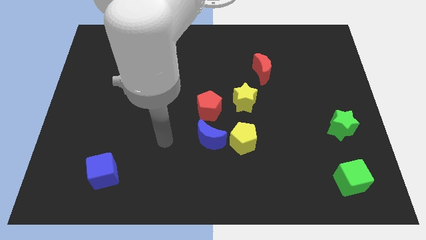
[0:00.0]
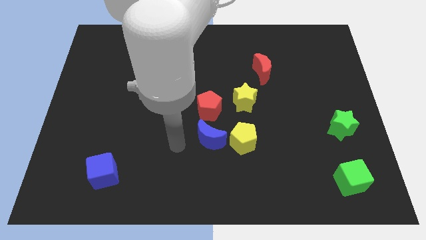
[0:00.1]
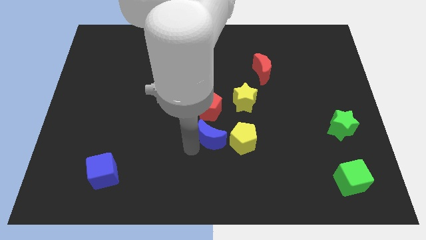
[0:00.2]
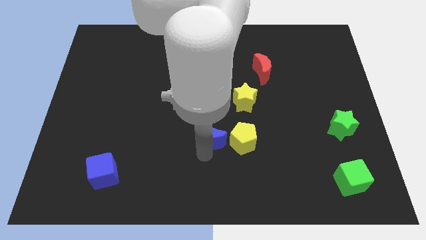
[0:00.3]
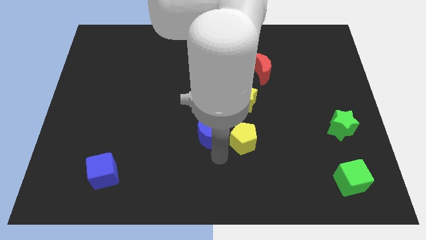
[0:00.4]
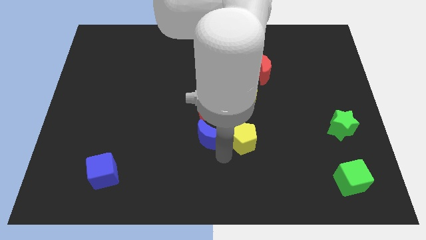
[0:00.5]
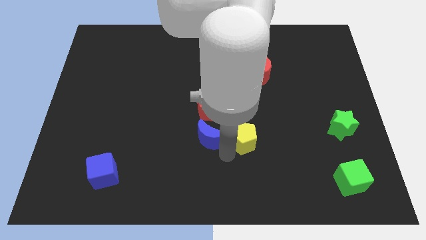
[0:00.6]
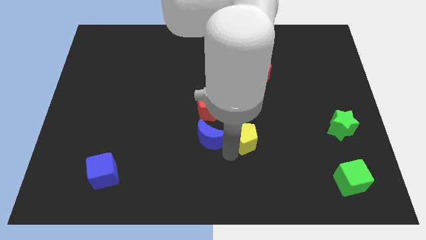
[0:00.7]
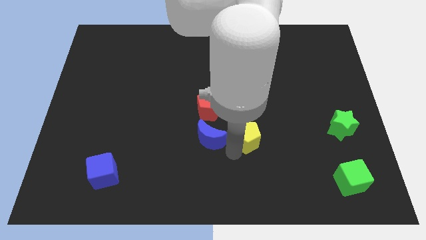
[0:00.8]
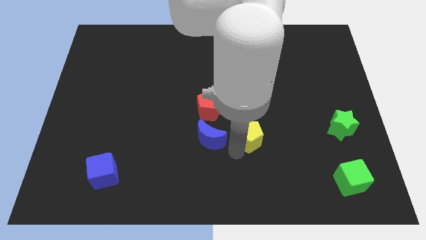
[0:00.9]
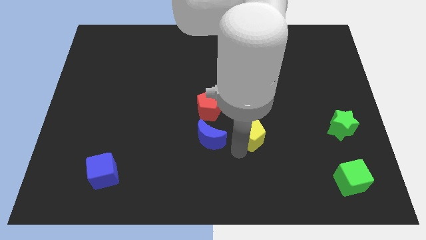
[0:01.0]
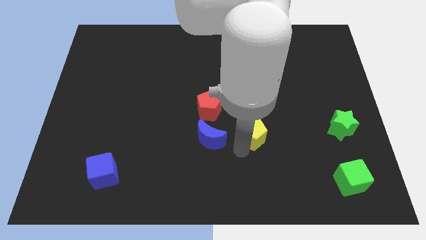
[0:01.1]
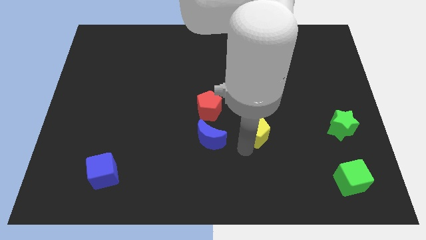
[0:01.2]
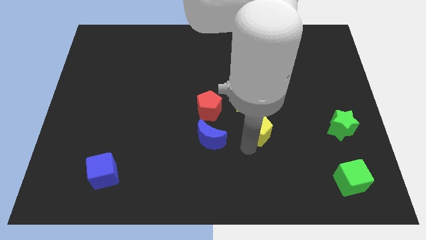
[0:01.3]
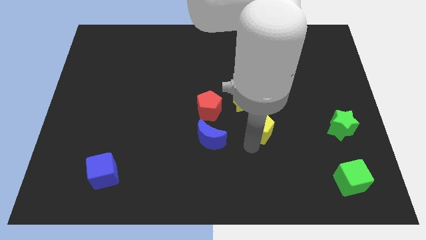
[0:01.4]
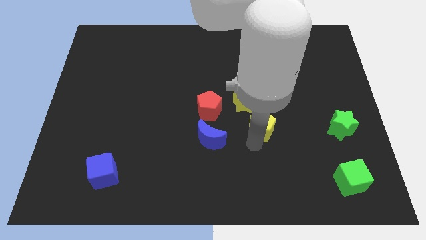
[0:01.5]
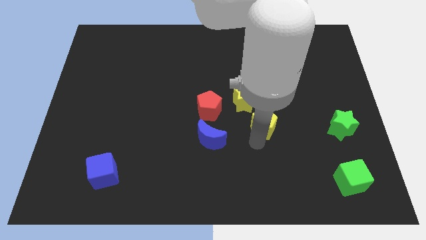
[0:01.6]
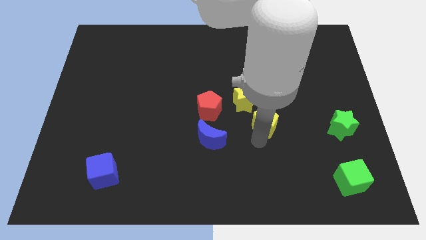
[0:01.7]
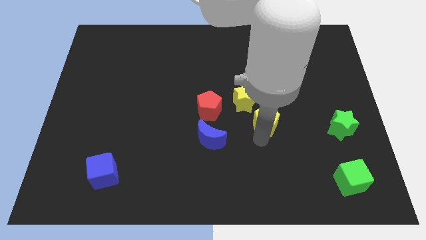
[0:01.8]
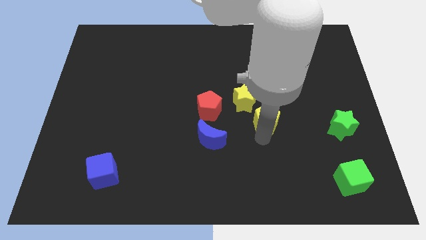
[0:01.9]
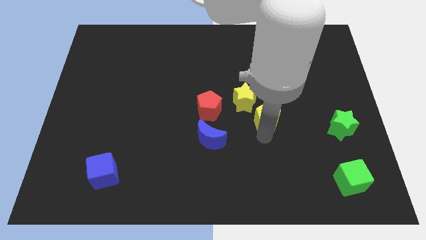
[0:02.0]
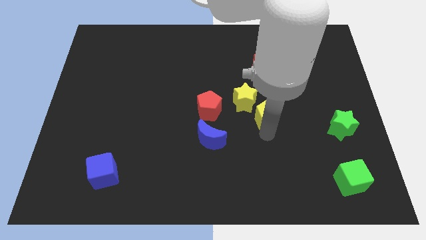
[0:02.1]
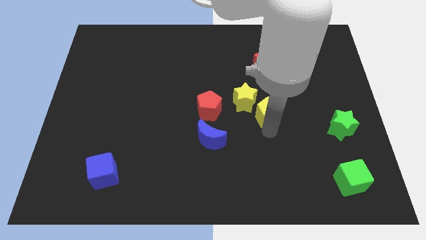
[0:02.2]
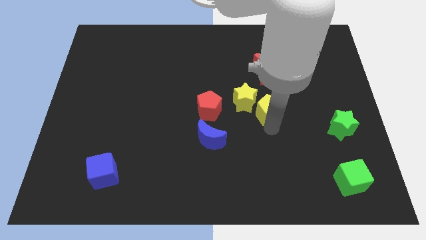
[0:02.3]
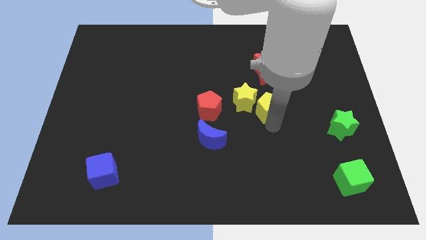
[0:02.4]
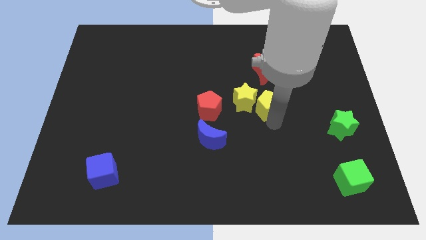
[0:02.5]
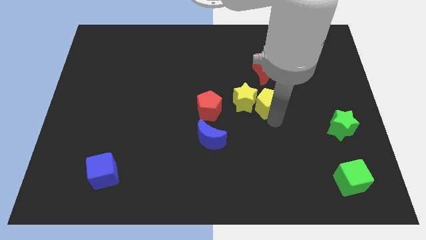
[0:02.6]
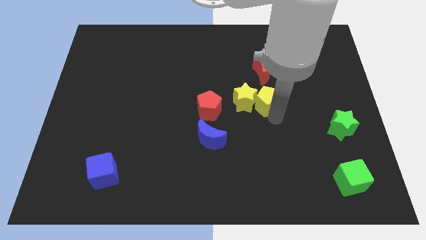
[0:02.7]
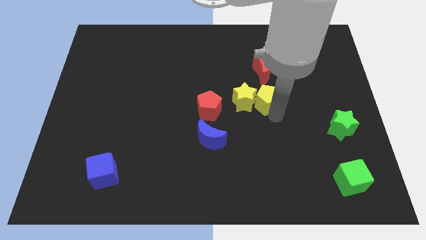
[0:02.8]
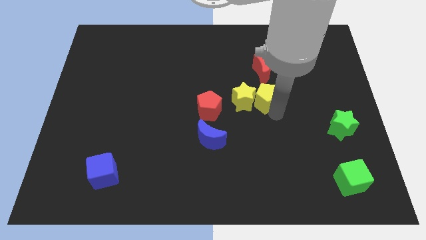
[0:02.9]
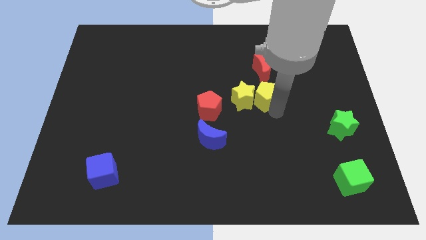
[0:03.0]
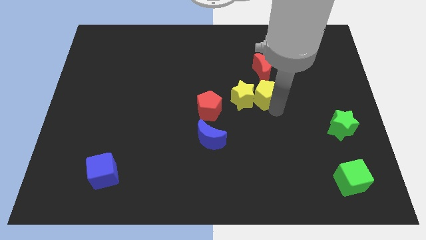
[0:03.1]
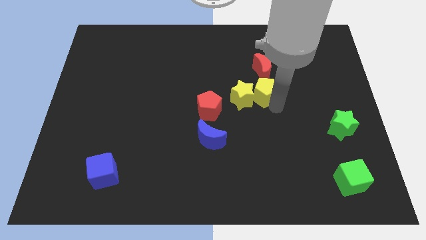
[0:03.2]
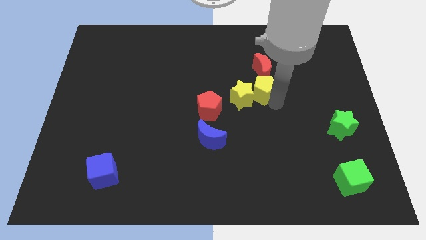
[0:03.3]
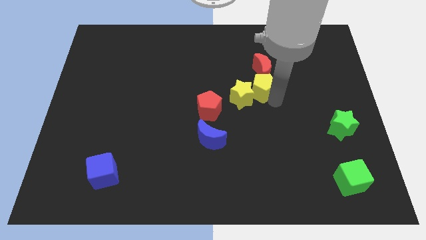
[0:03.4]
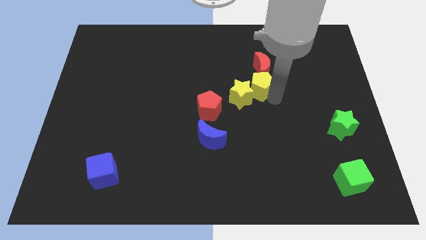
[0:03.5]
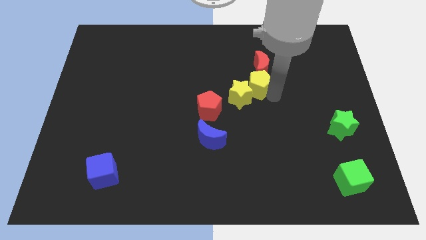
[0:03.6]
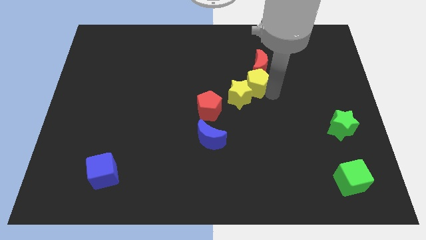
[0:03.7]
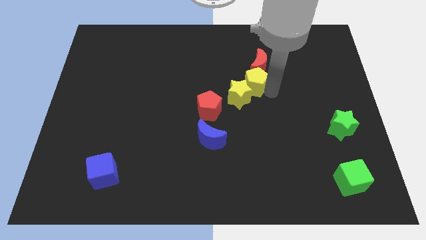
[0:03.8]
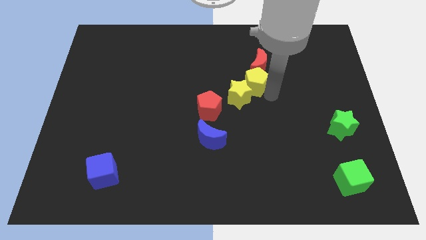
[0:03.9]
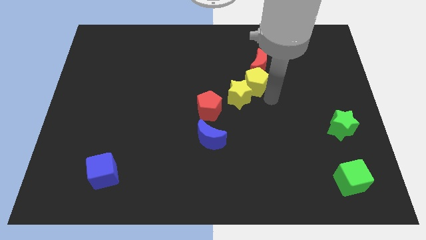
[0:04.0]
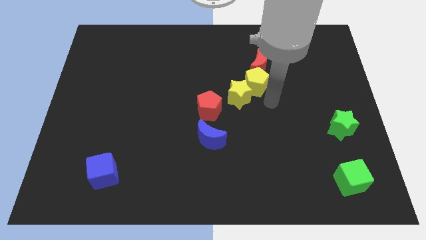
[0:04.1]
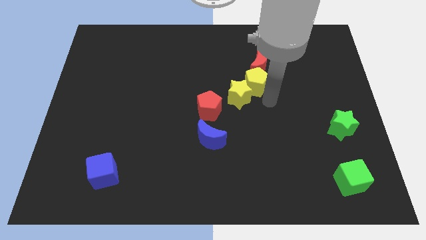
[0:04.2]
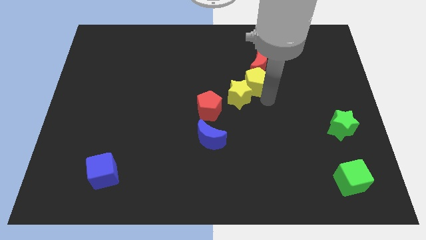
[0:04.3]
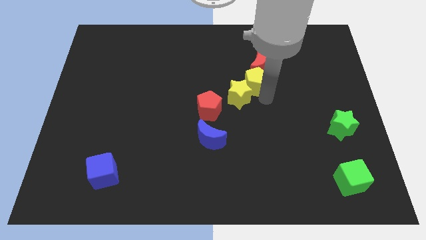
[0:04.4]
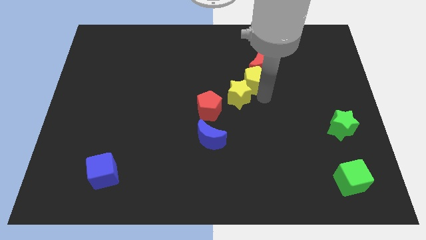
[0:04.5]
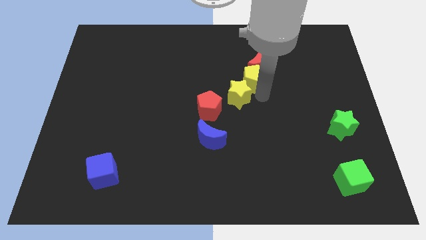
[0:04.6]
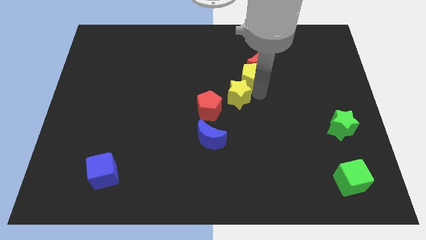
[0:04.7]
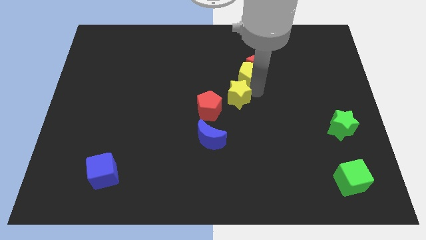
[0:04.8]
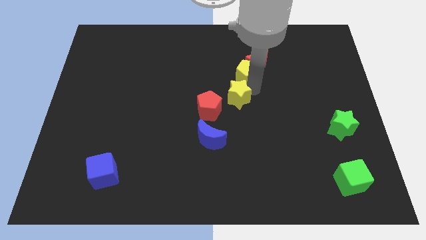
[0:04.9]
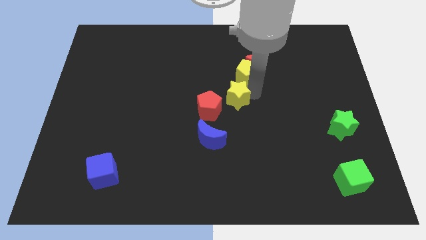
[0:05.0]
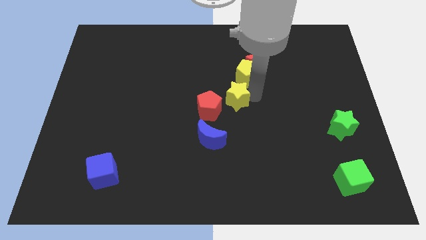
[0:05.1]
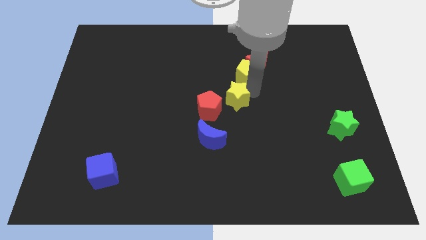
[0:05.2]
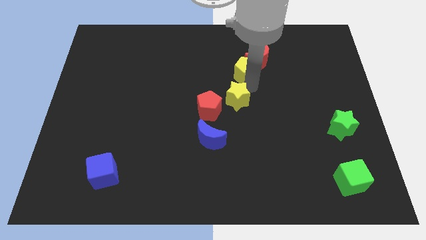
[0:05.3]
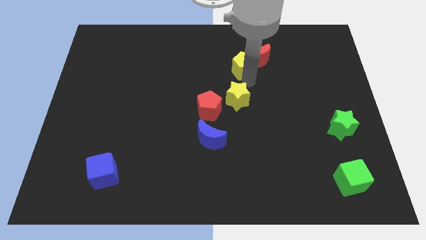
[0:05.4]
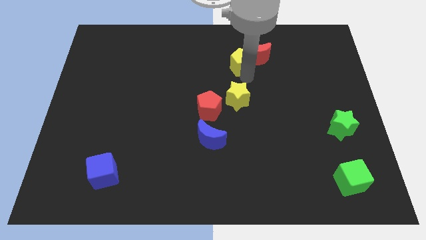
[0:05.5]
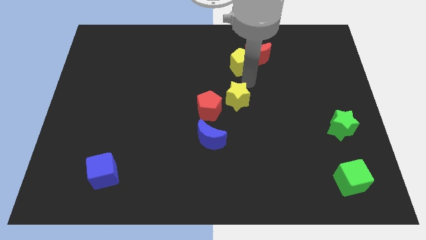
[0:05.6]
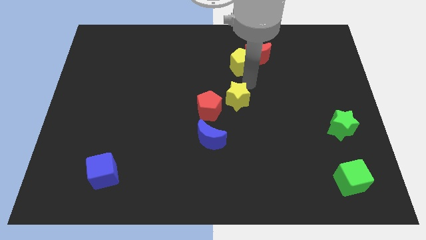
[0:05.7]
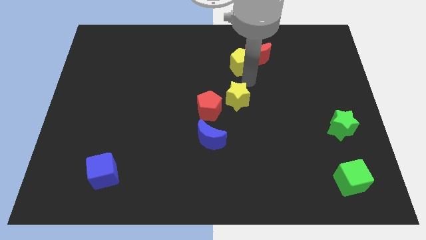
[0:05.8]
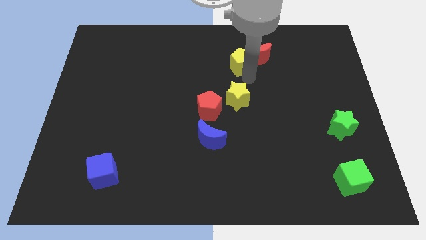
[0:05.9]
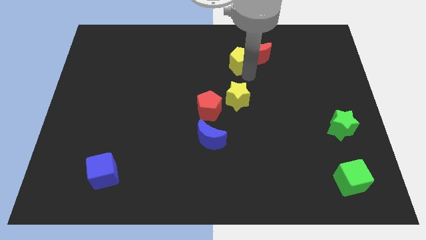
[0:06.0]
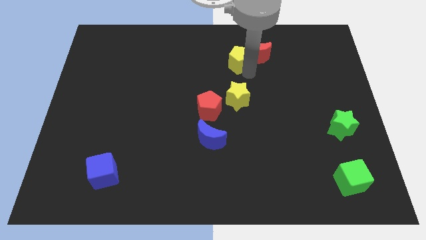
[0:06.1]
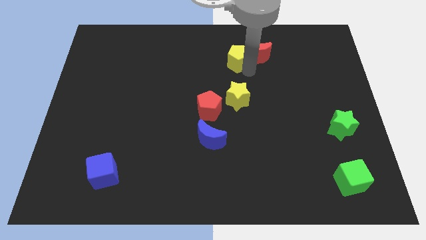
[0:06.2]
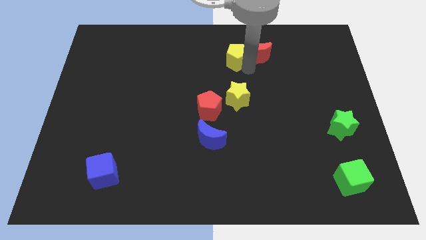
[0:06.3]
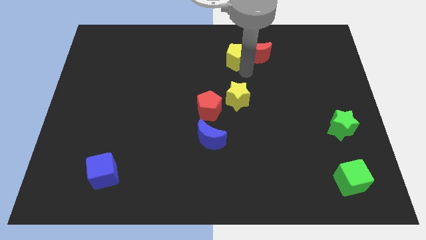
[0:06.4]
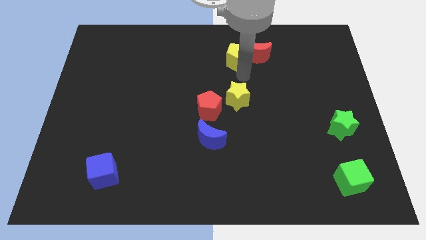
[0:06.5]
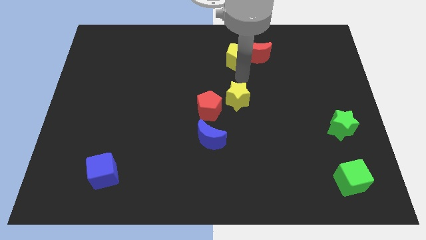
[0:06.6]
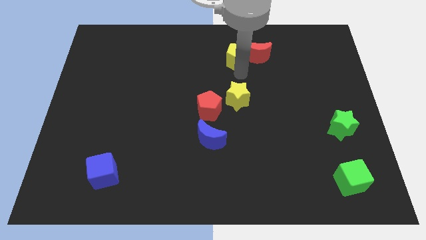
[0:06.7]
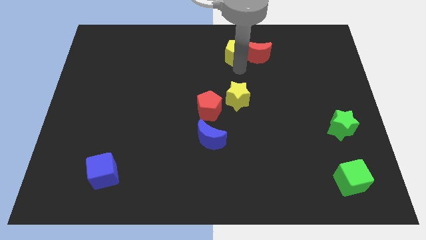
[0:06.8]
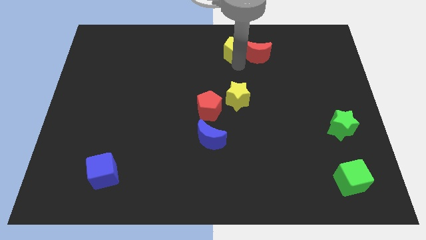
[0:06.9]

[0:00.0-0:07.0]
put the yellow pentagon to the top side
